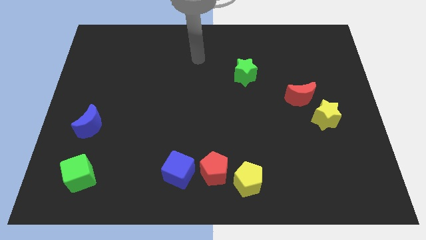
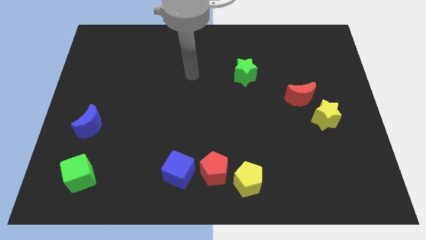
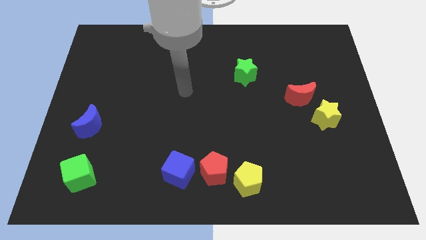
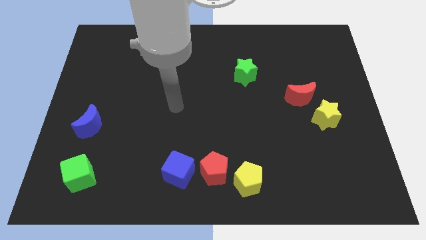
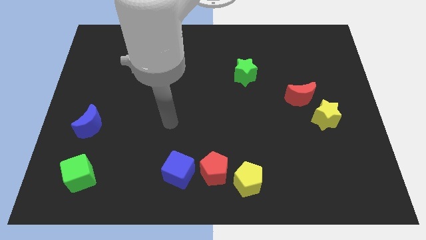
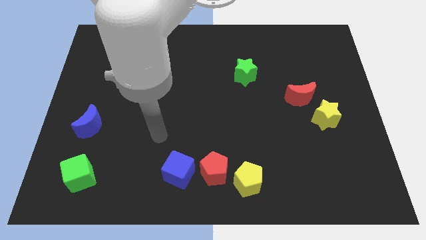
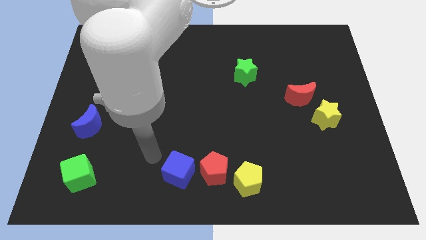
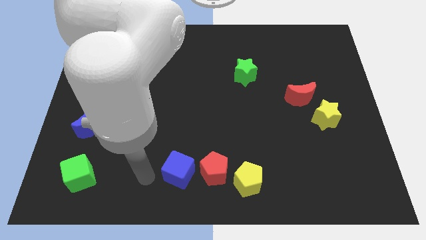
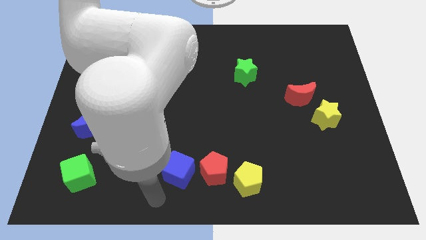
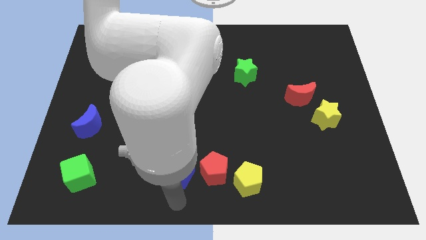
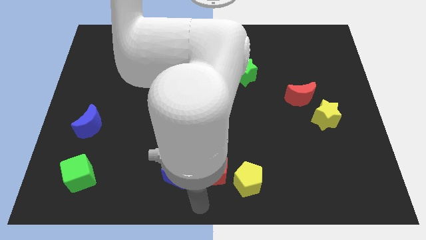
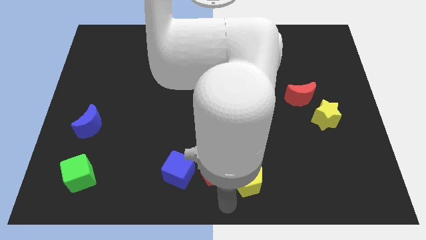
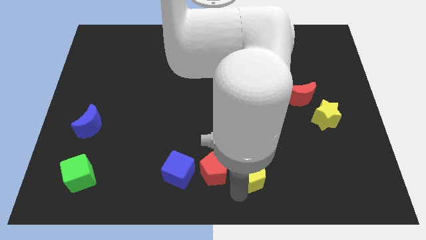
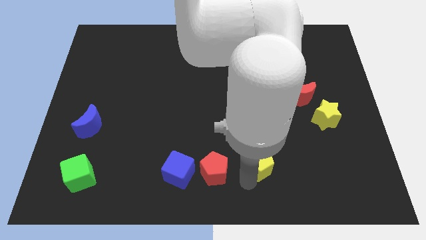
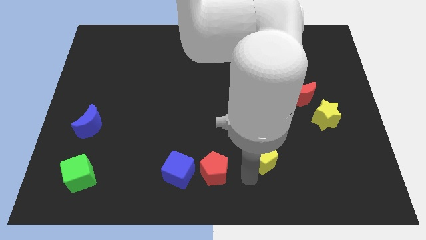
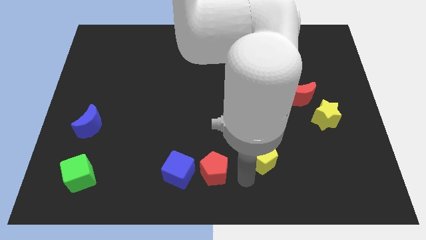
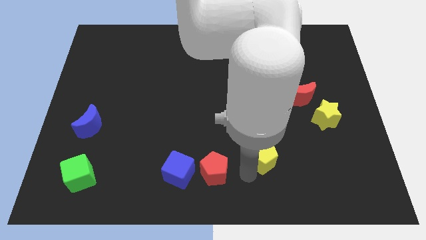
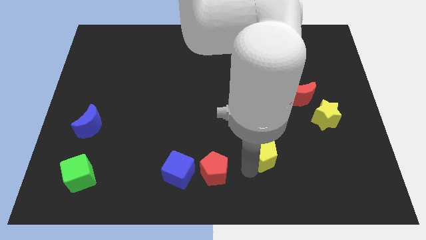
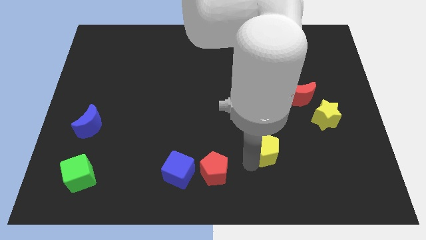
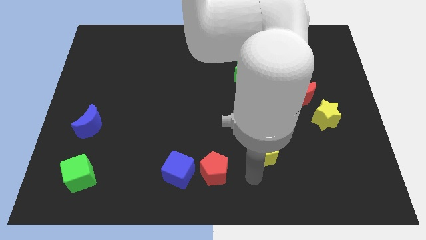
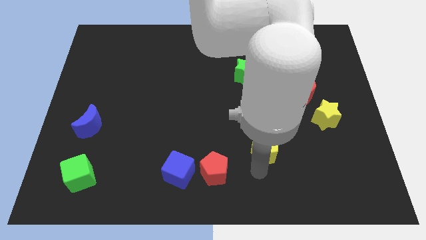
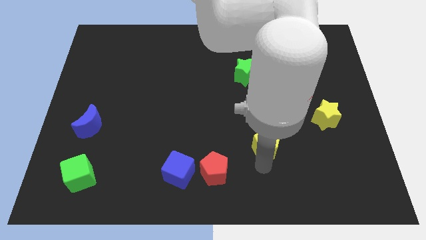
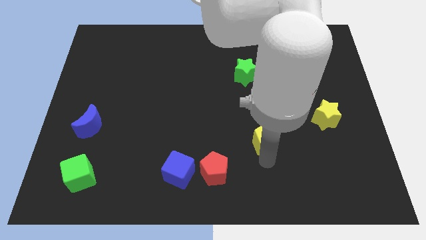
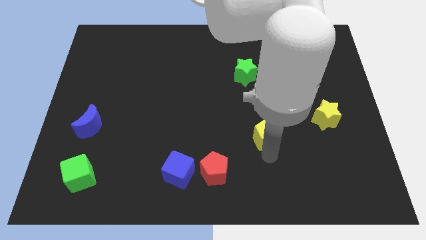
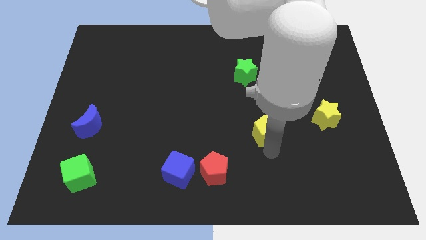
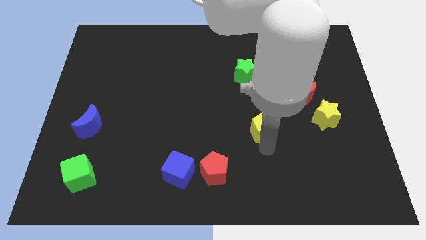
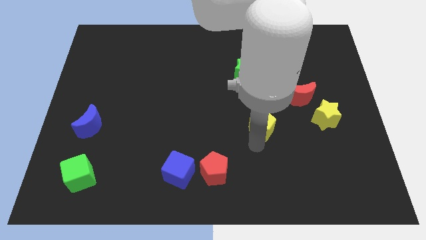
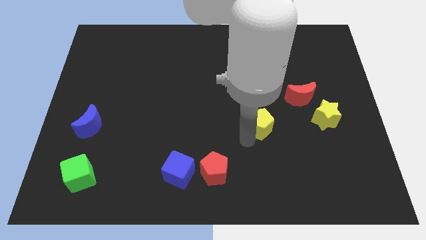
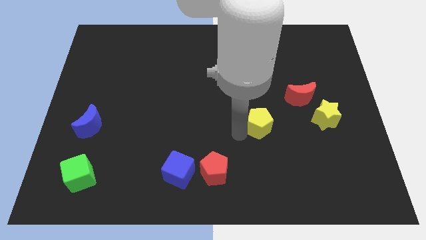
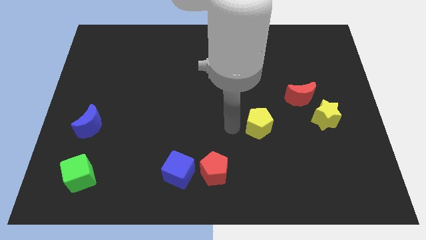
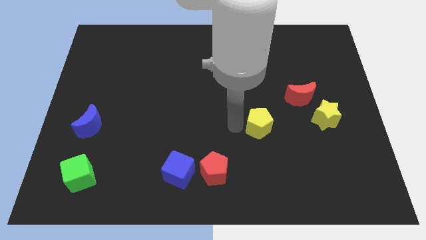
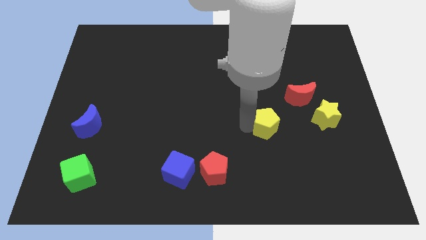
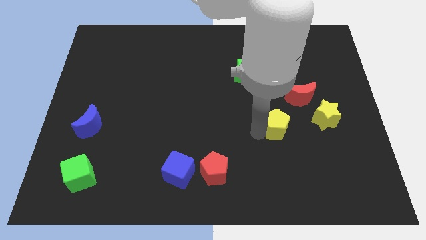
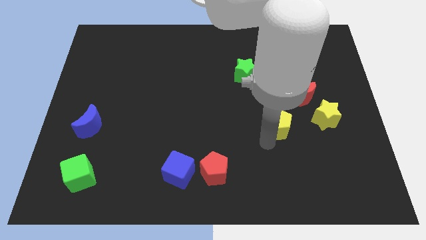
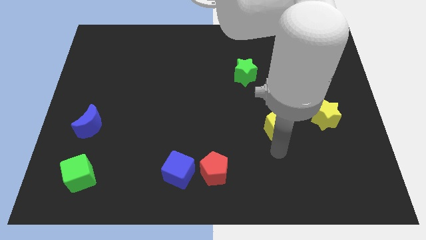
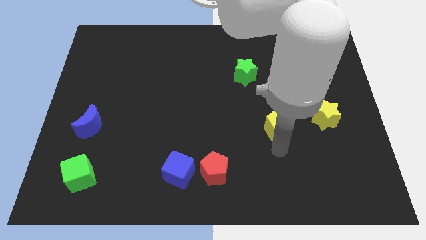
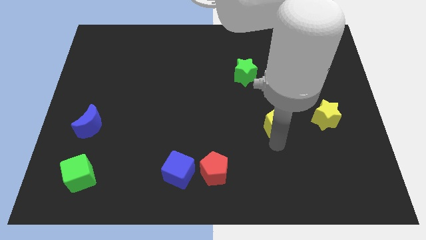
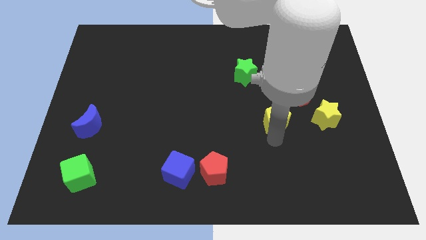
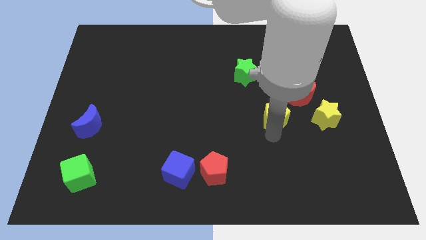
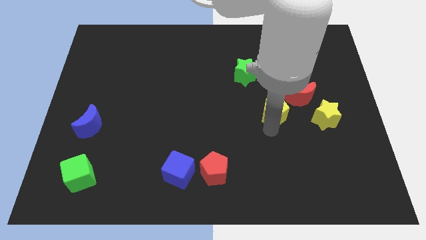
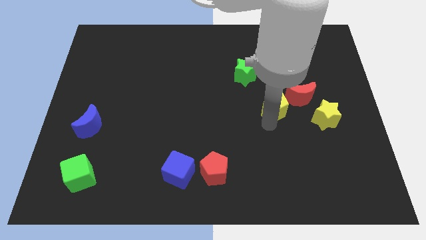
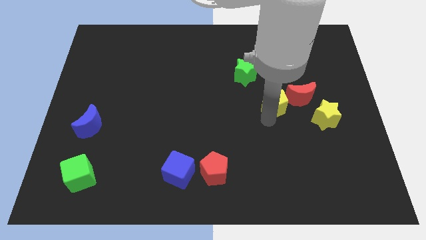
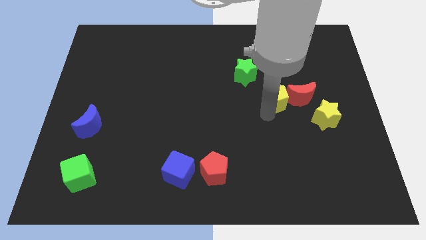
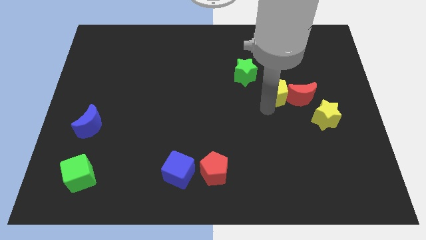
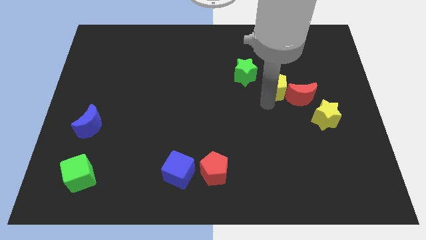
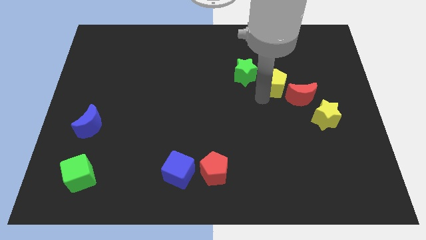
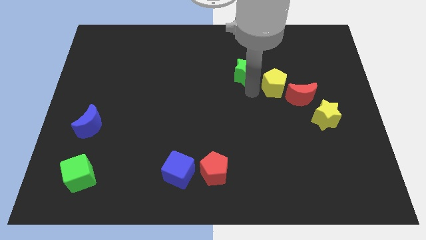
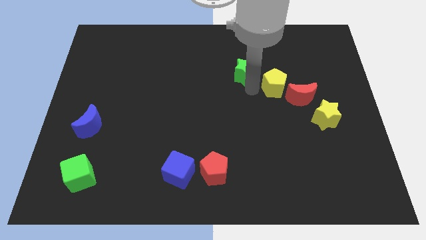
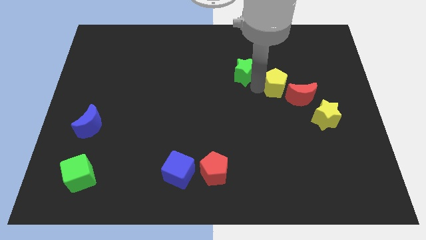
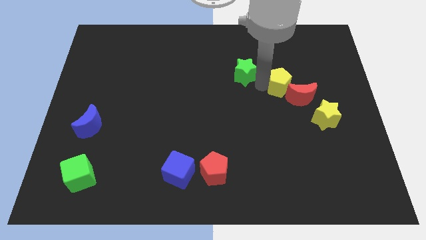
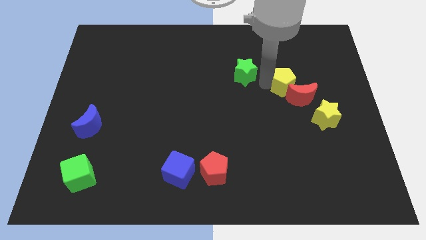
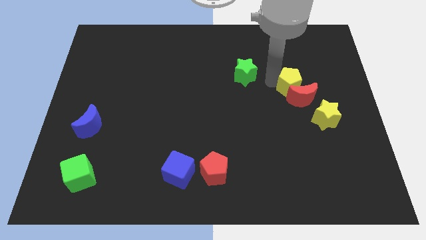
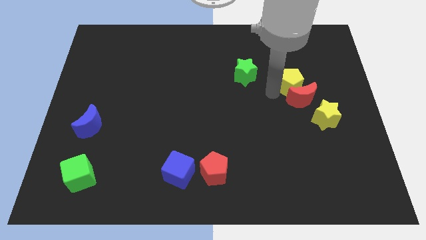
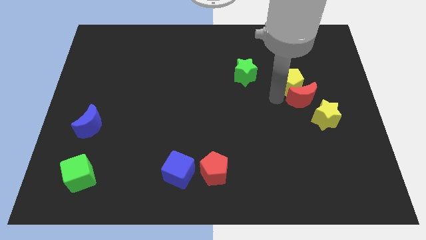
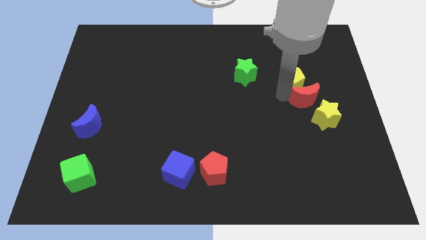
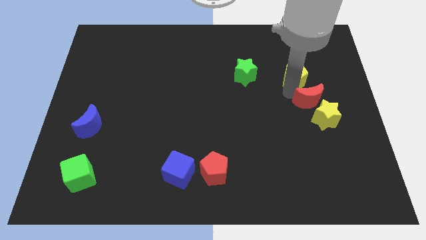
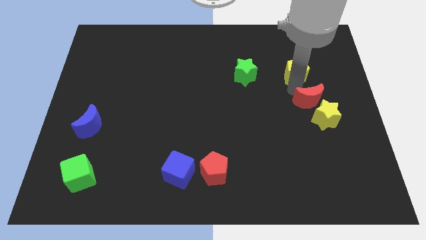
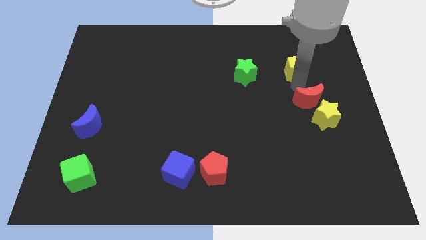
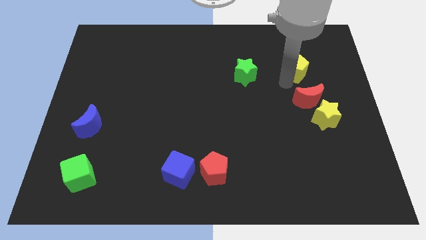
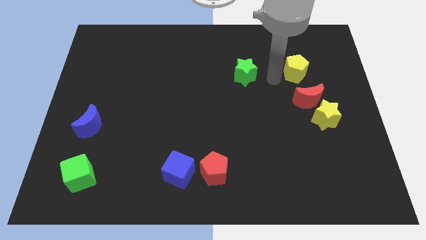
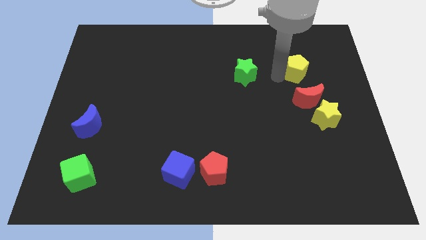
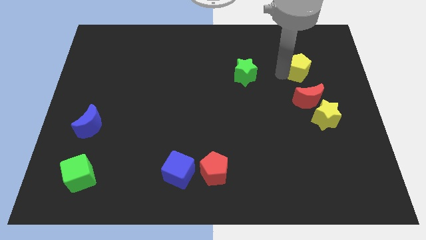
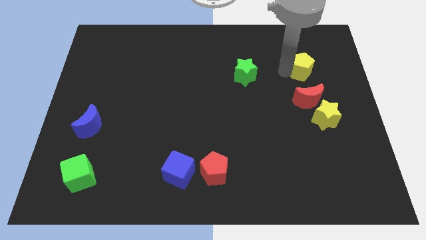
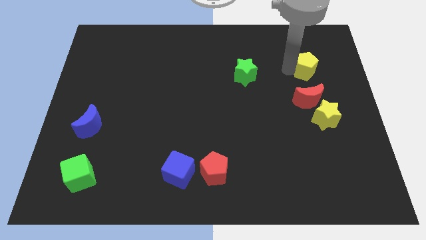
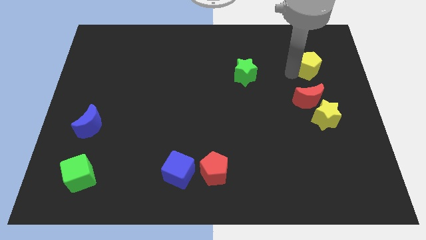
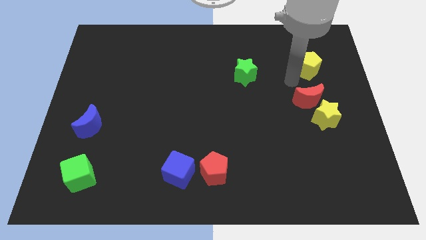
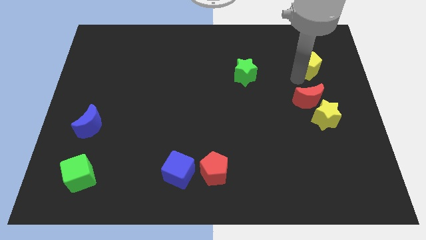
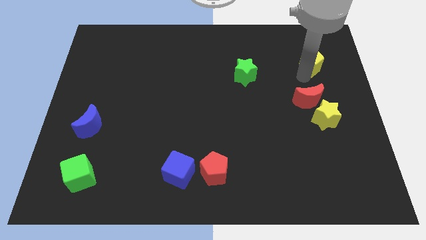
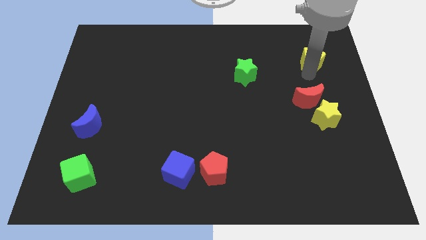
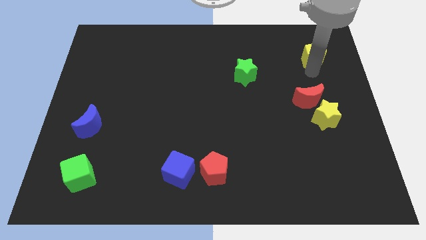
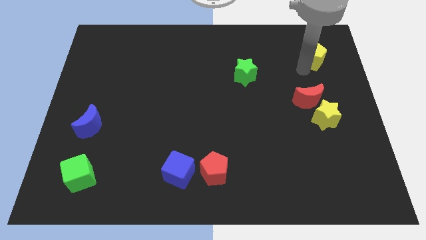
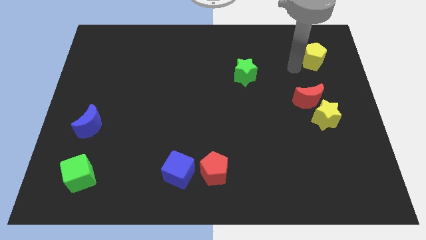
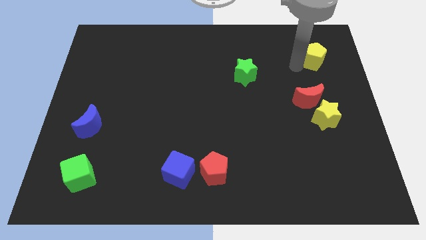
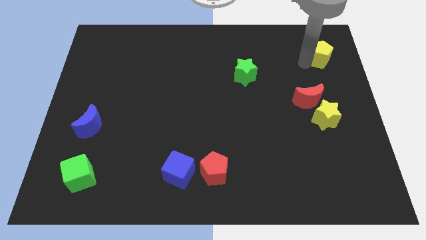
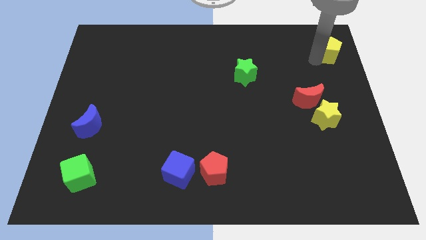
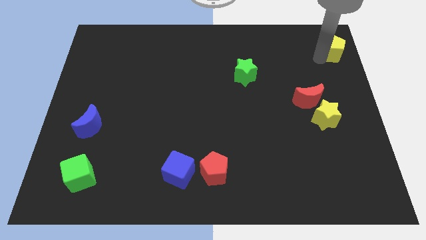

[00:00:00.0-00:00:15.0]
put the yellow pentagon to the upper right corner
